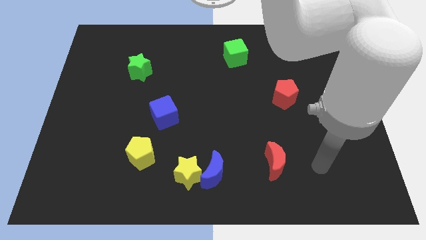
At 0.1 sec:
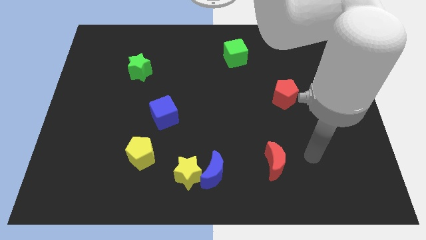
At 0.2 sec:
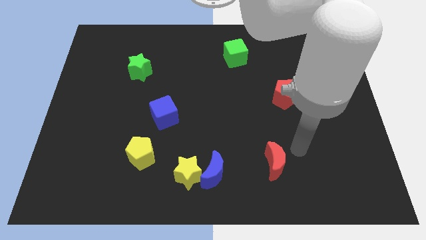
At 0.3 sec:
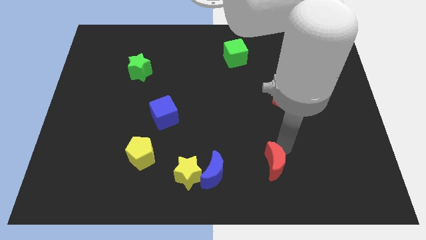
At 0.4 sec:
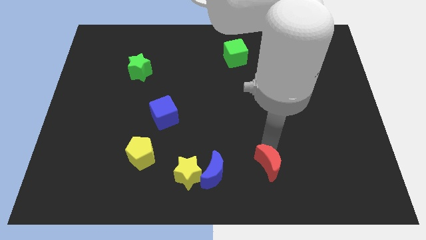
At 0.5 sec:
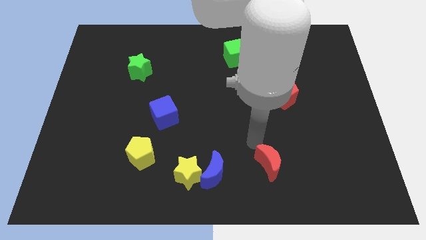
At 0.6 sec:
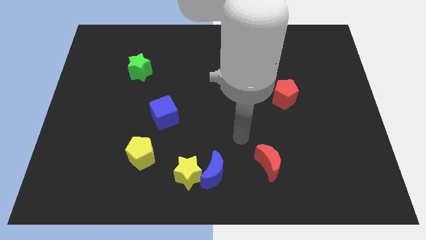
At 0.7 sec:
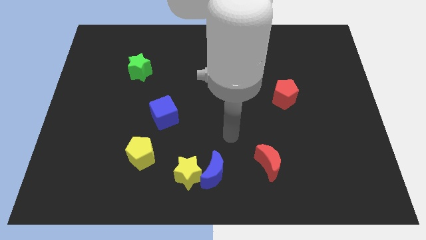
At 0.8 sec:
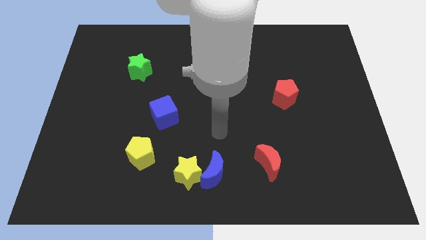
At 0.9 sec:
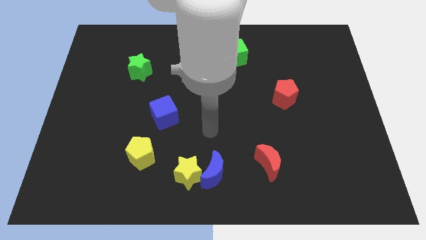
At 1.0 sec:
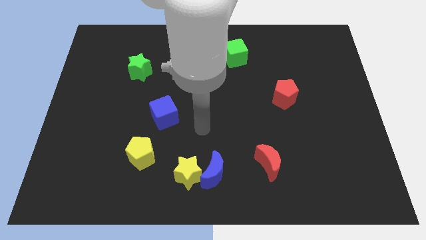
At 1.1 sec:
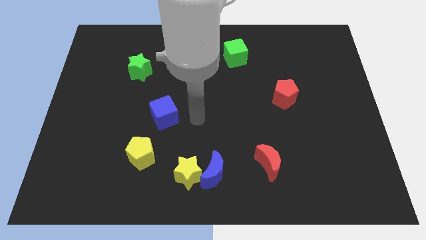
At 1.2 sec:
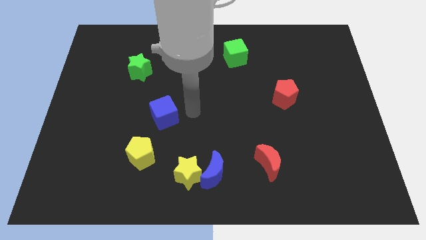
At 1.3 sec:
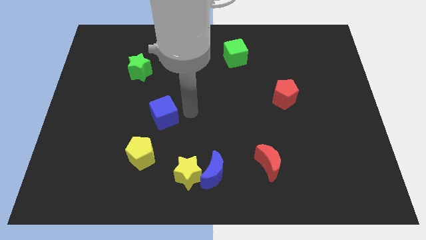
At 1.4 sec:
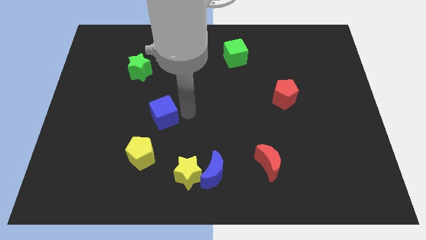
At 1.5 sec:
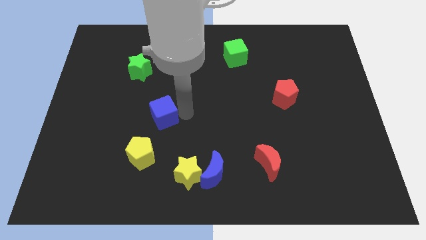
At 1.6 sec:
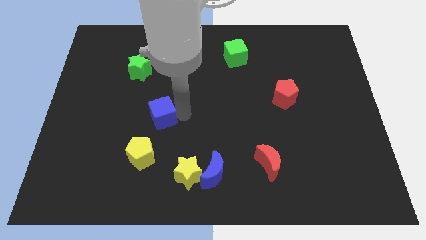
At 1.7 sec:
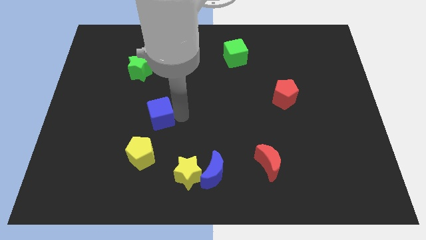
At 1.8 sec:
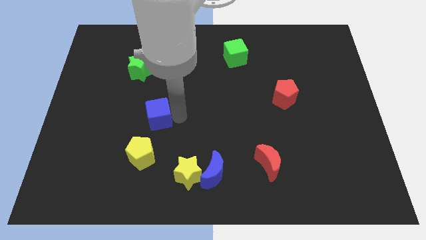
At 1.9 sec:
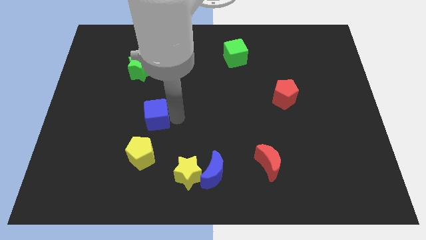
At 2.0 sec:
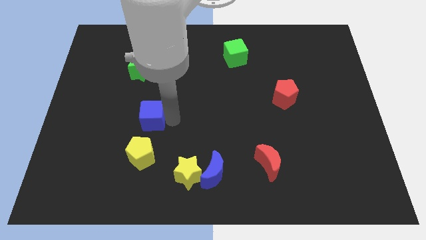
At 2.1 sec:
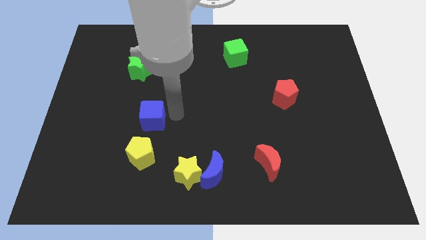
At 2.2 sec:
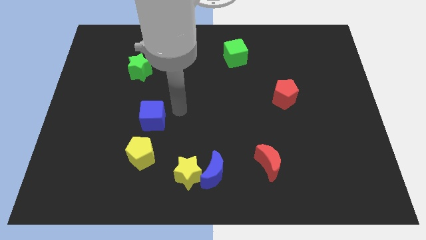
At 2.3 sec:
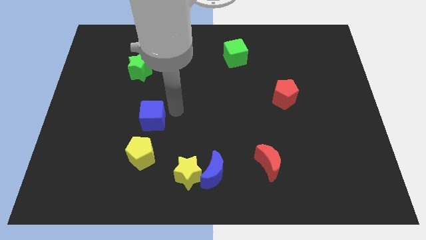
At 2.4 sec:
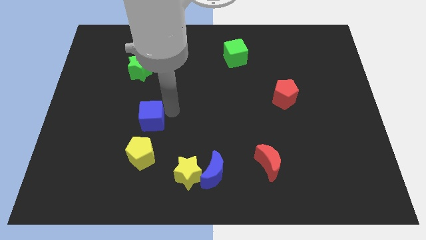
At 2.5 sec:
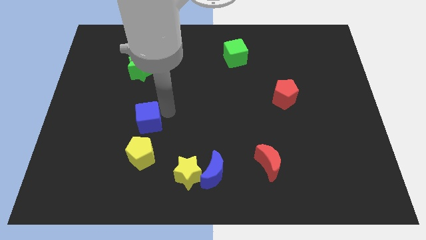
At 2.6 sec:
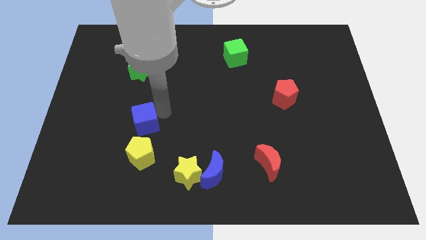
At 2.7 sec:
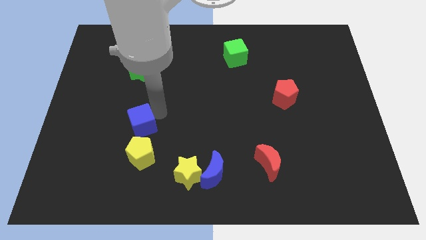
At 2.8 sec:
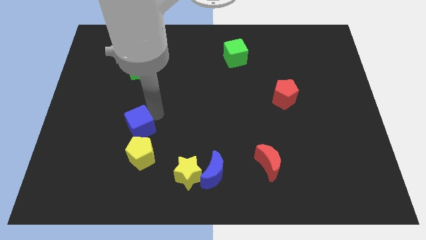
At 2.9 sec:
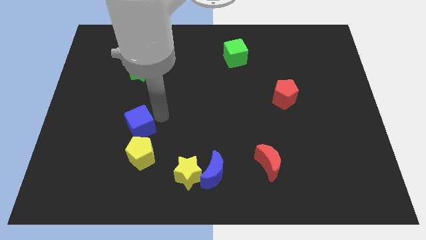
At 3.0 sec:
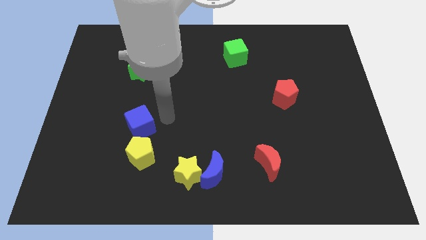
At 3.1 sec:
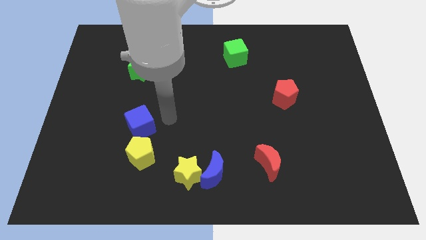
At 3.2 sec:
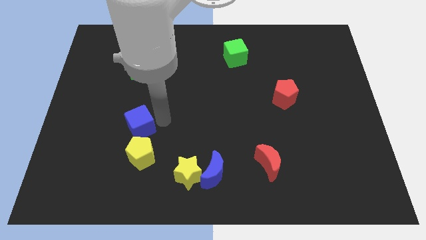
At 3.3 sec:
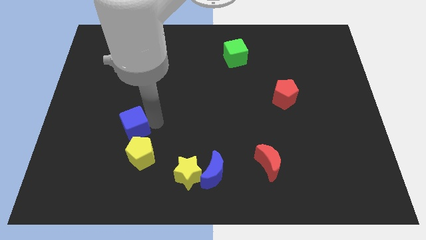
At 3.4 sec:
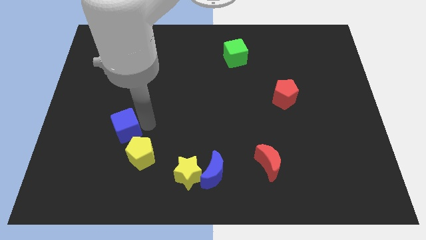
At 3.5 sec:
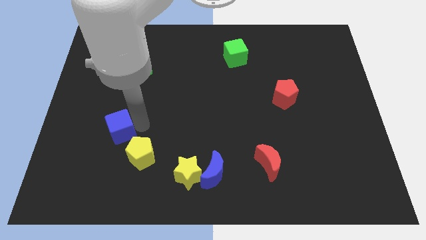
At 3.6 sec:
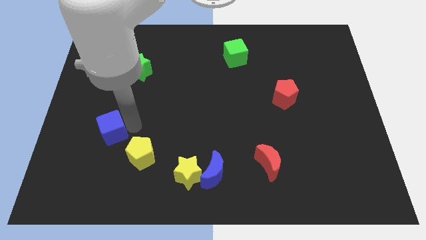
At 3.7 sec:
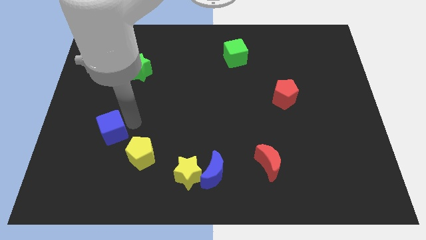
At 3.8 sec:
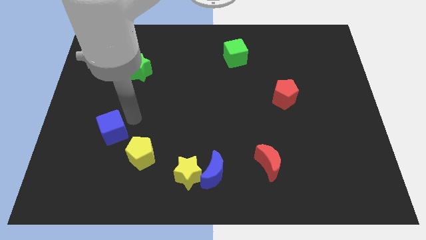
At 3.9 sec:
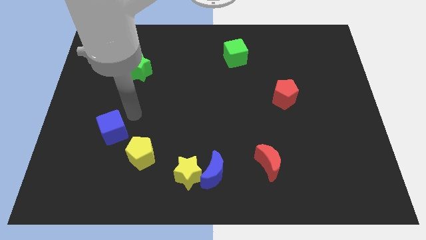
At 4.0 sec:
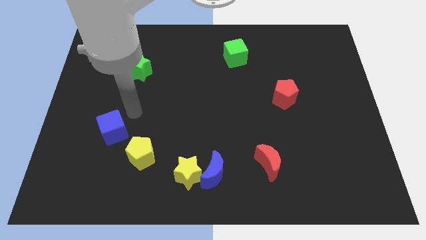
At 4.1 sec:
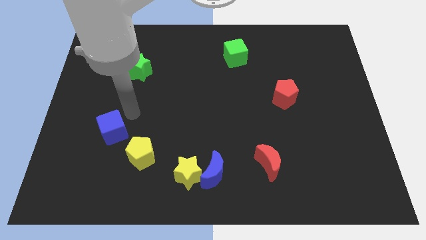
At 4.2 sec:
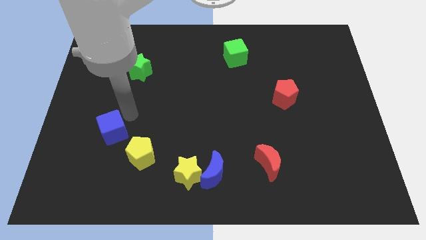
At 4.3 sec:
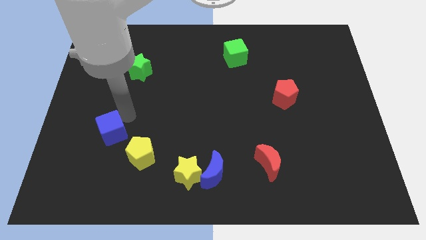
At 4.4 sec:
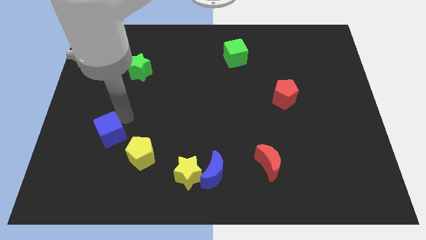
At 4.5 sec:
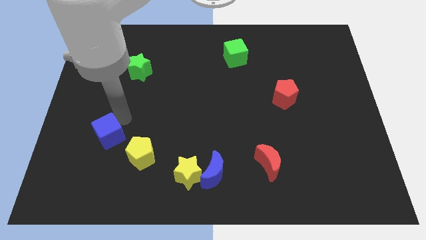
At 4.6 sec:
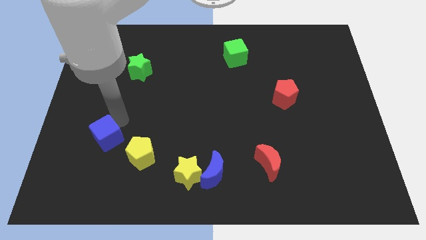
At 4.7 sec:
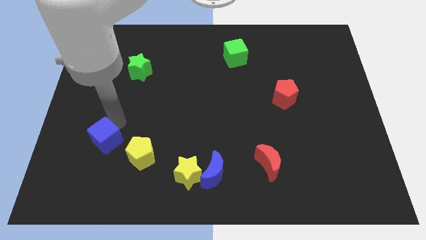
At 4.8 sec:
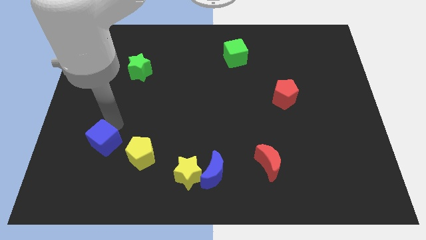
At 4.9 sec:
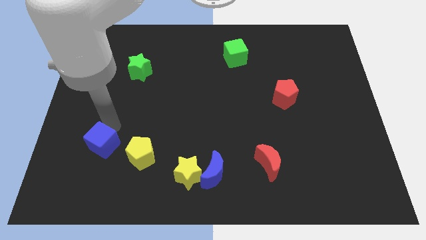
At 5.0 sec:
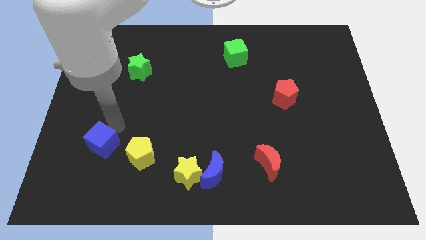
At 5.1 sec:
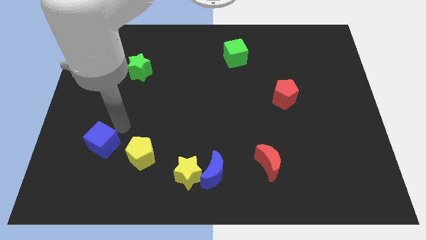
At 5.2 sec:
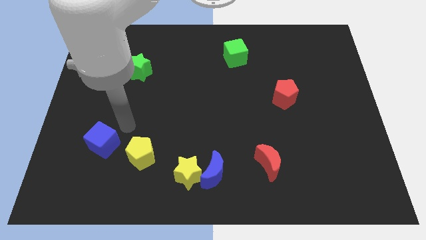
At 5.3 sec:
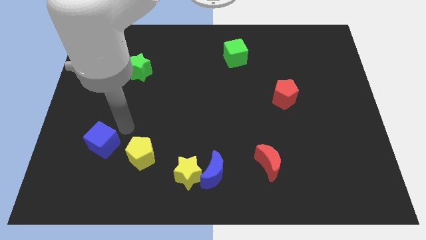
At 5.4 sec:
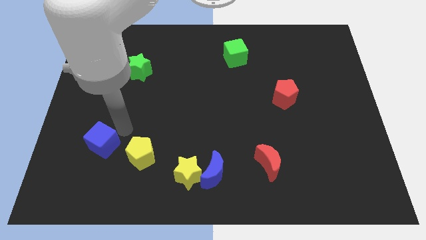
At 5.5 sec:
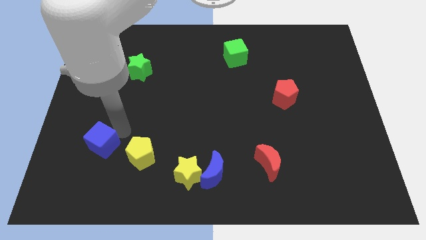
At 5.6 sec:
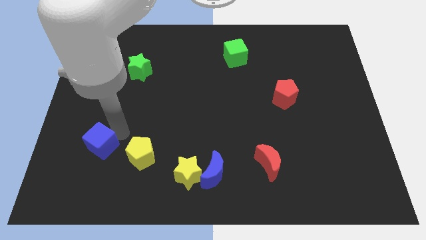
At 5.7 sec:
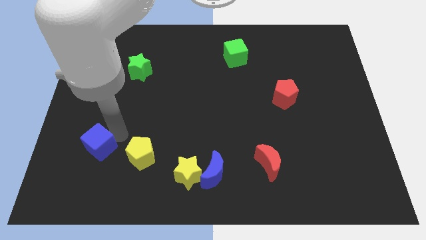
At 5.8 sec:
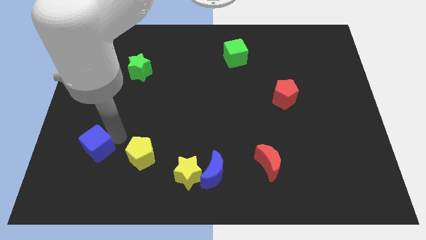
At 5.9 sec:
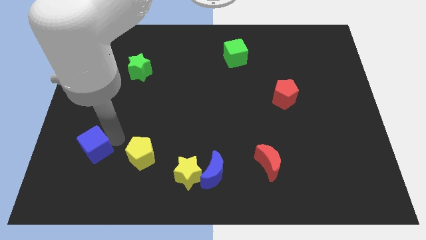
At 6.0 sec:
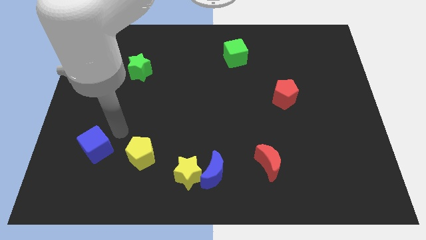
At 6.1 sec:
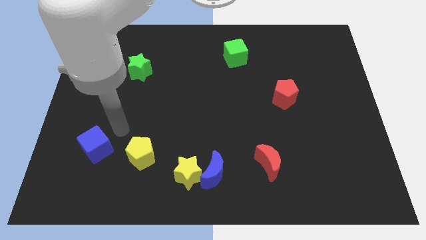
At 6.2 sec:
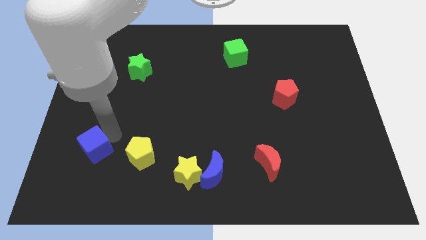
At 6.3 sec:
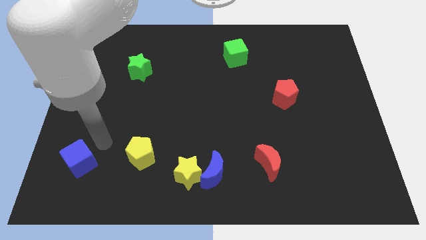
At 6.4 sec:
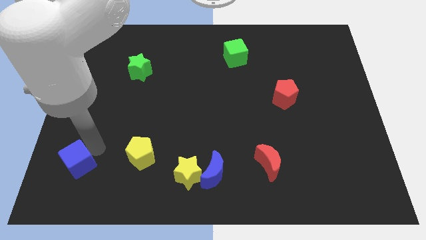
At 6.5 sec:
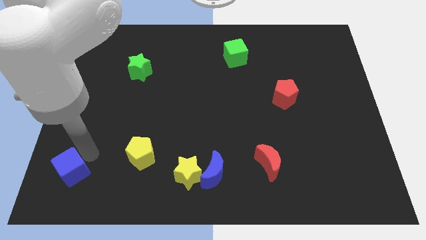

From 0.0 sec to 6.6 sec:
push the blue cube to the bottom left corner

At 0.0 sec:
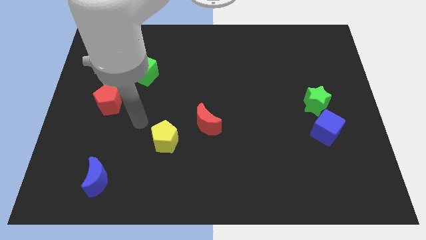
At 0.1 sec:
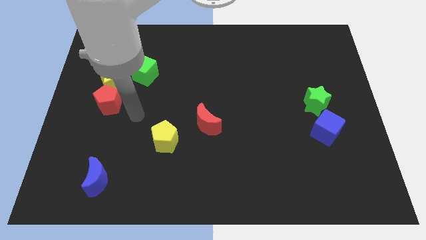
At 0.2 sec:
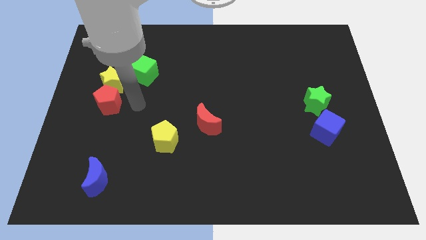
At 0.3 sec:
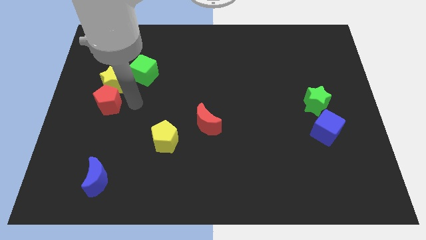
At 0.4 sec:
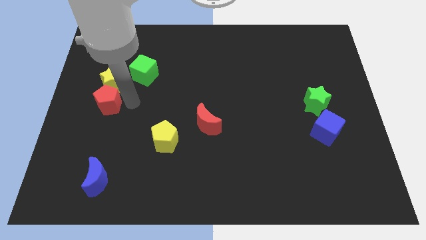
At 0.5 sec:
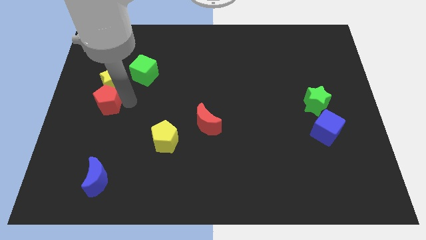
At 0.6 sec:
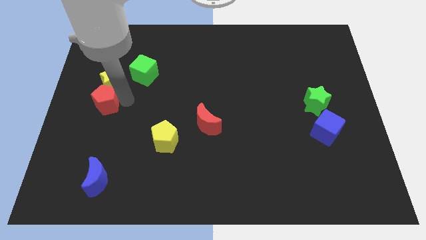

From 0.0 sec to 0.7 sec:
slide the red pentagon to the center left
